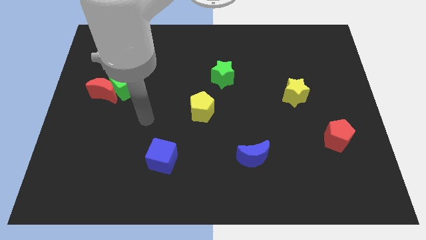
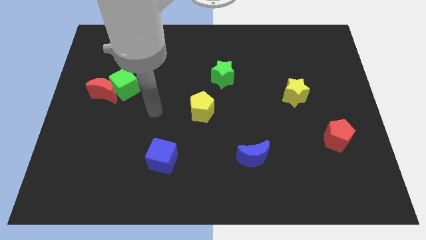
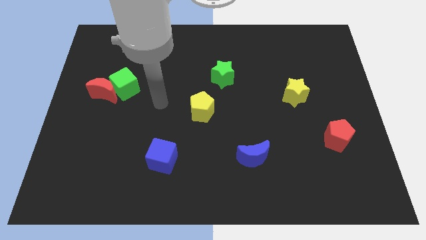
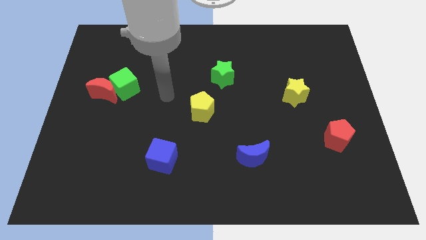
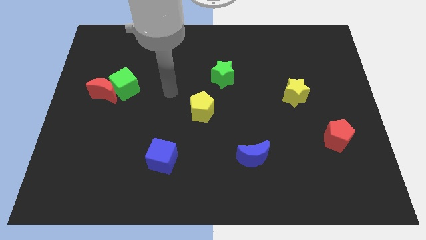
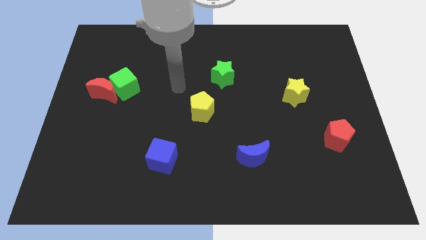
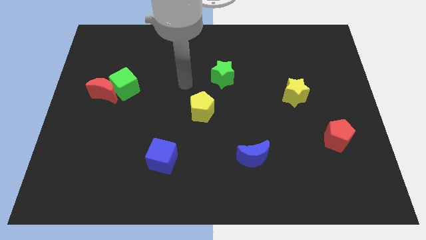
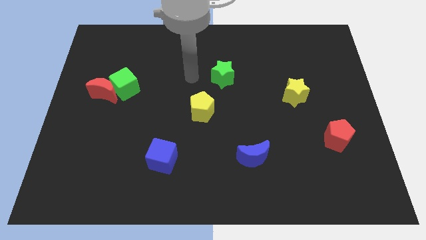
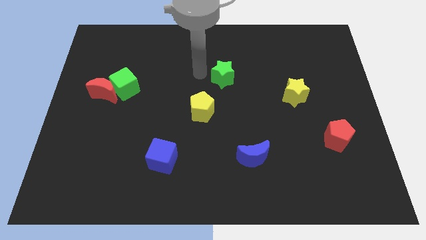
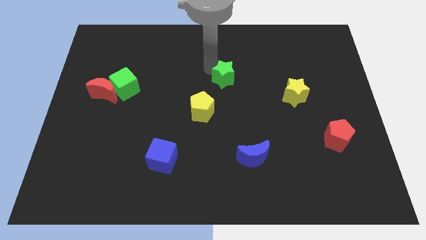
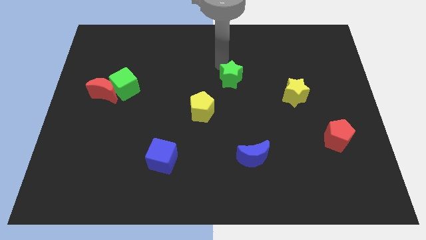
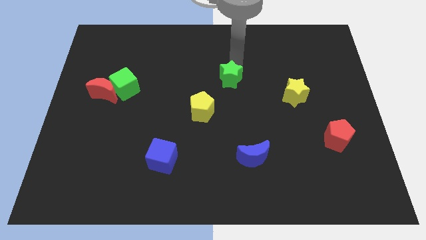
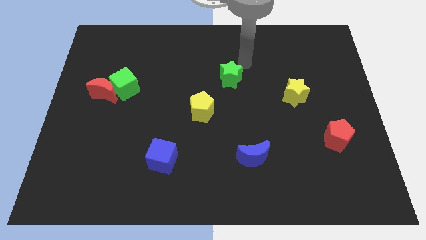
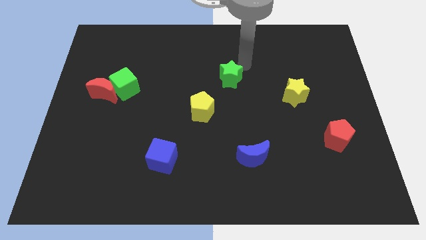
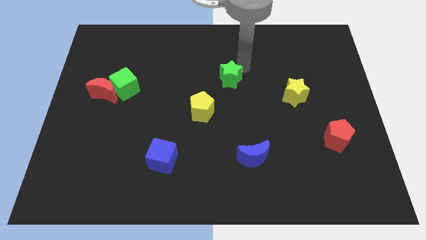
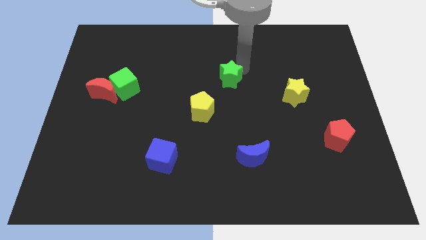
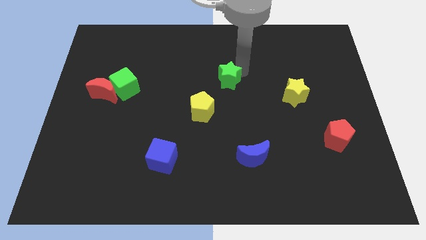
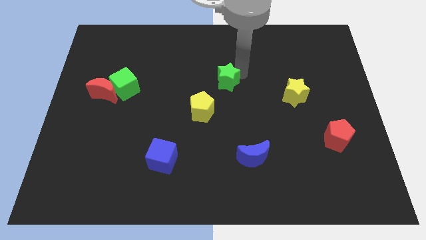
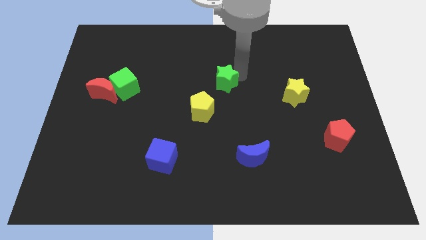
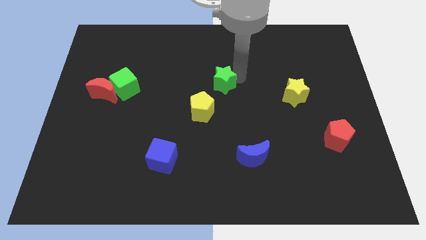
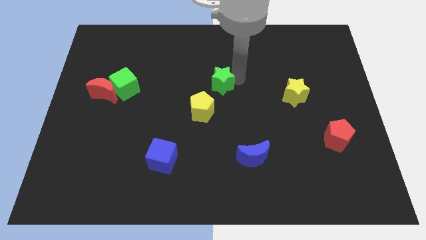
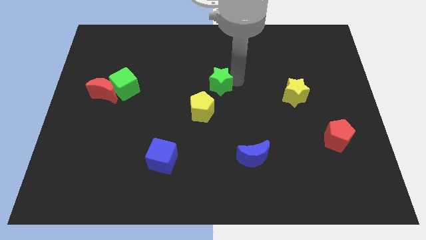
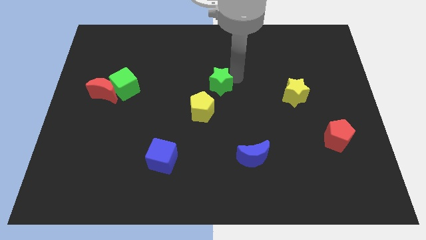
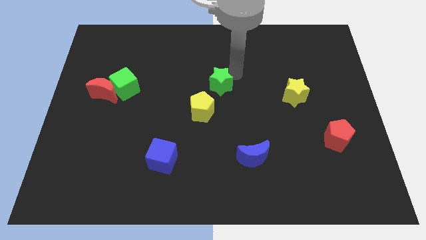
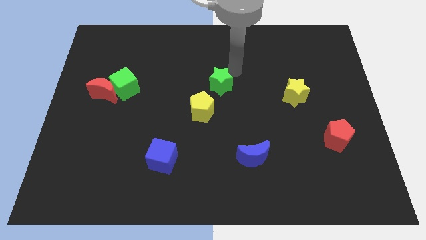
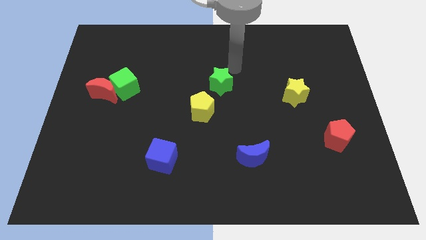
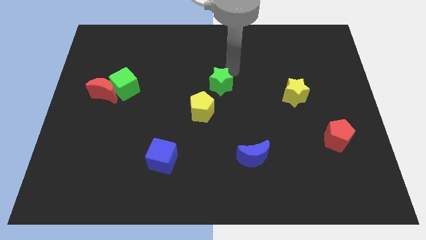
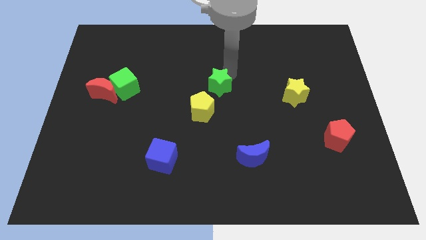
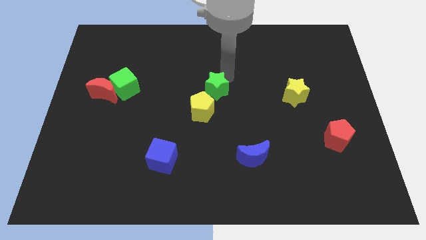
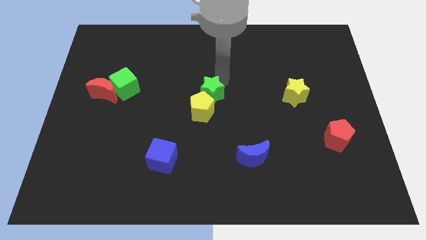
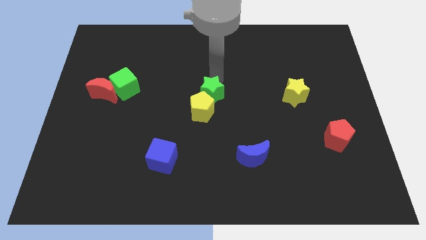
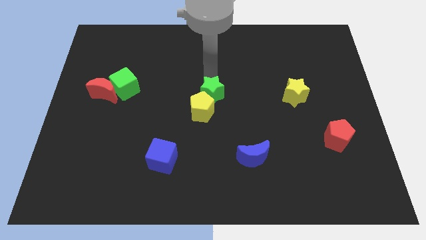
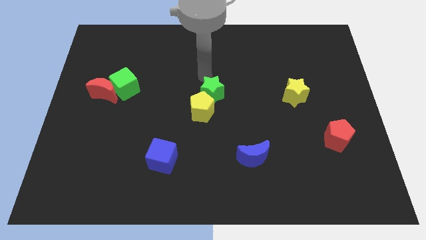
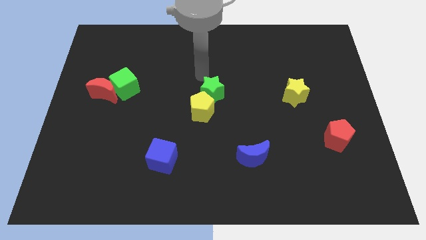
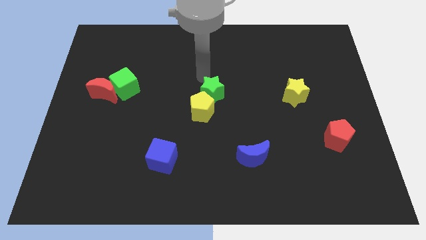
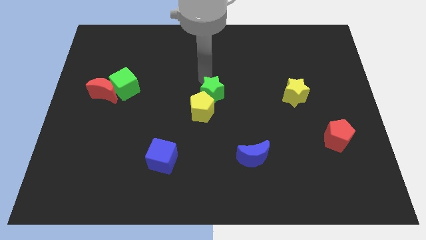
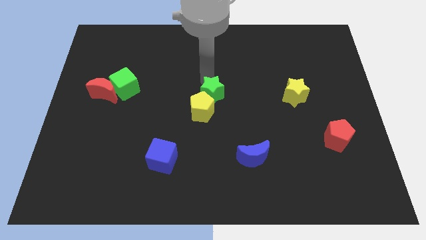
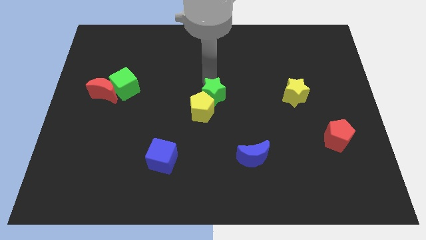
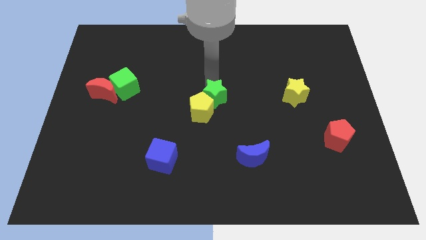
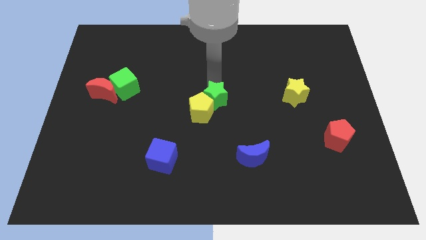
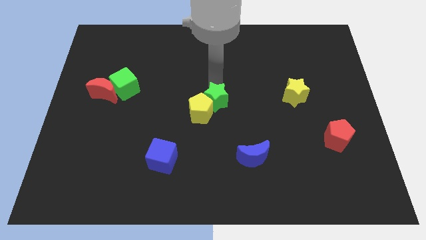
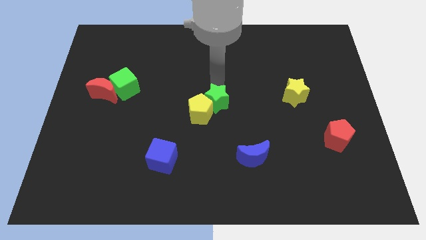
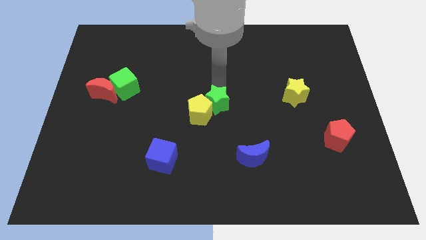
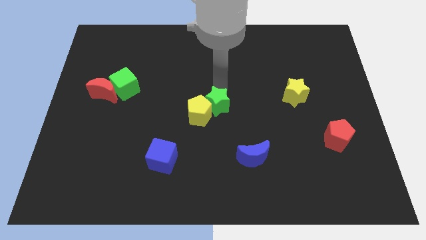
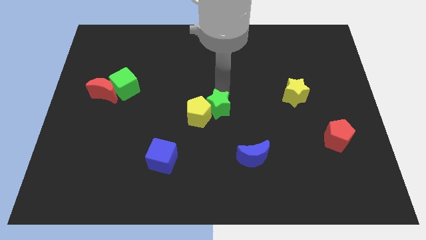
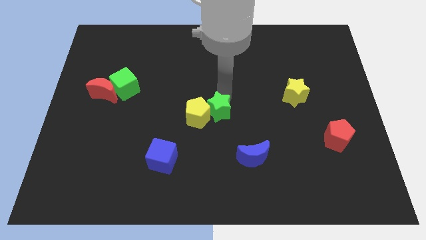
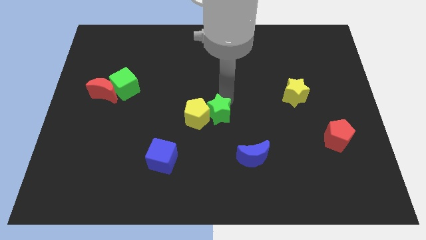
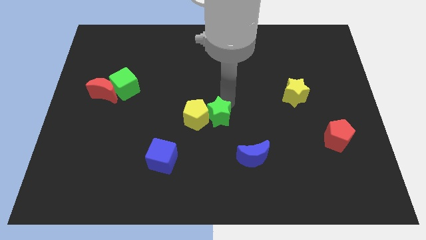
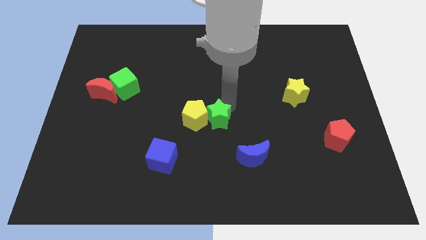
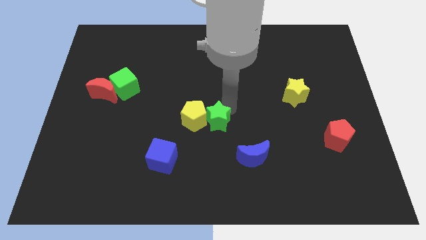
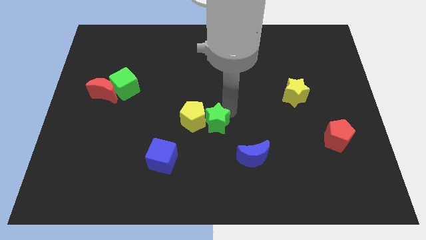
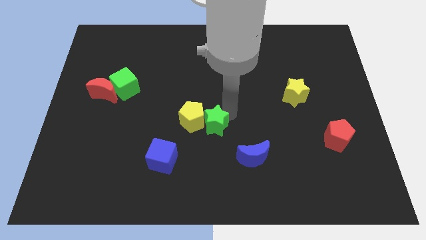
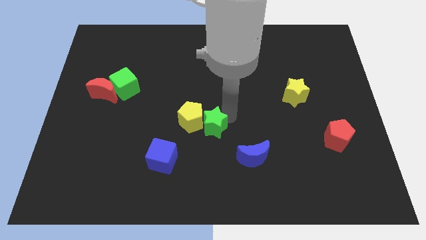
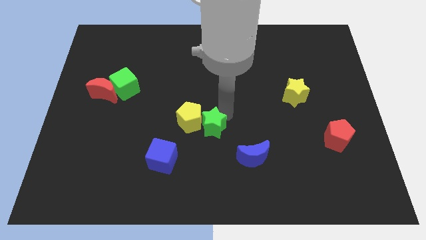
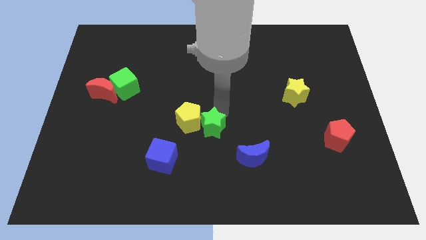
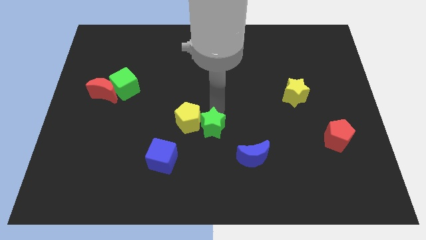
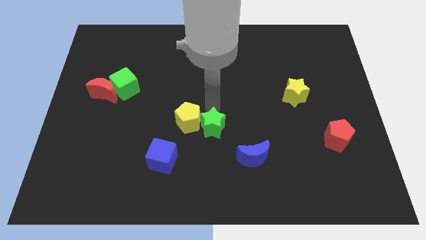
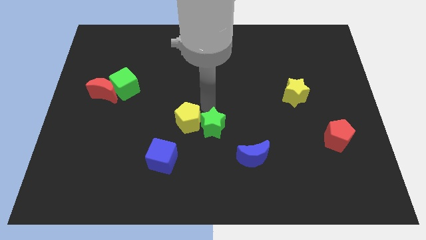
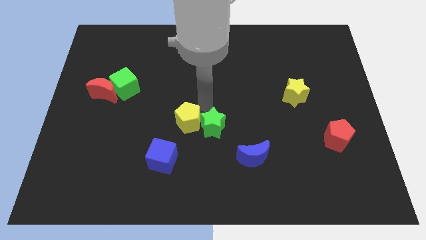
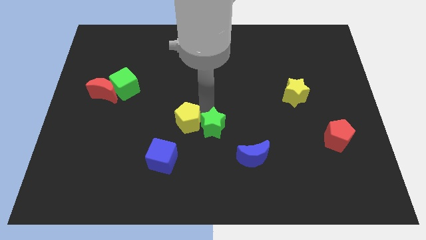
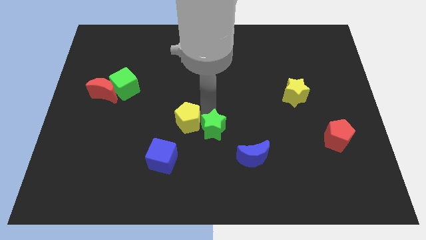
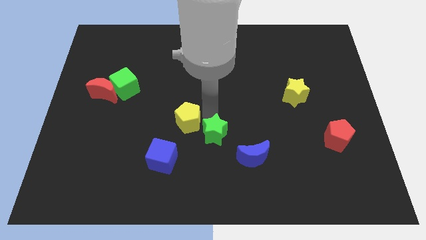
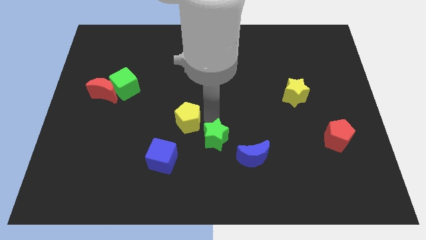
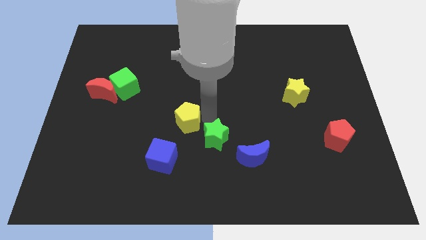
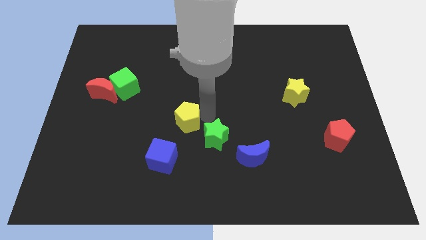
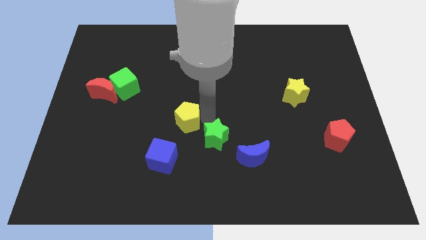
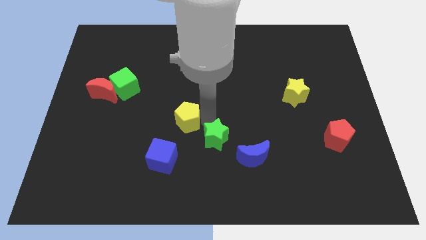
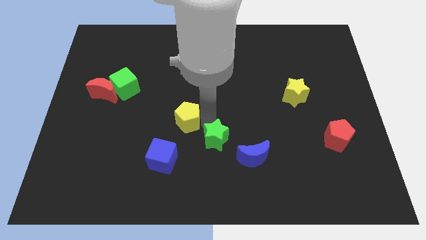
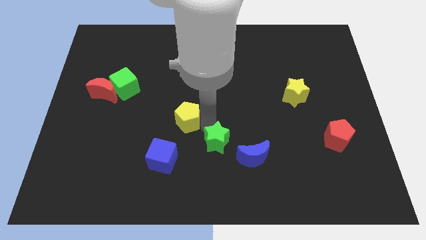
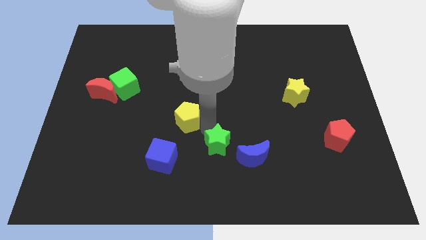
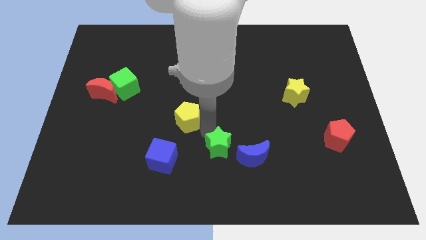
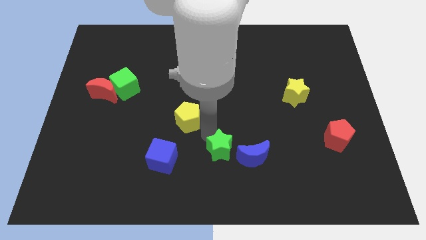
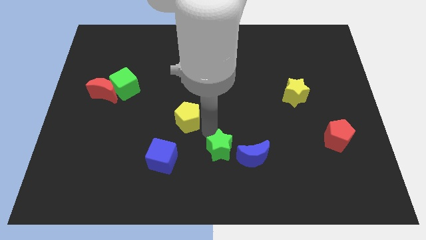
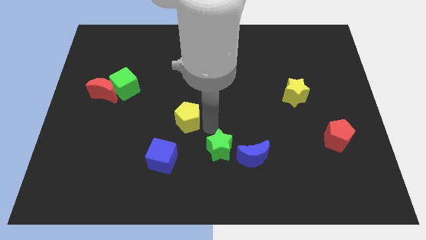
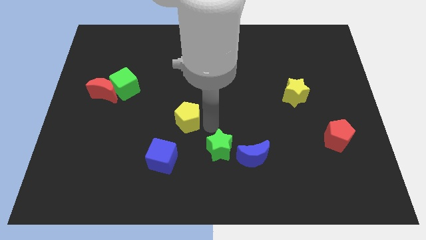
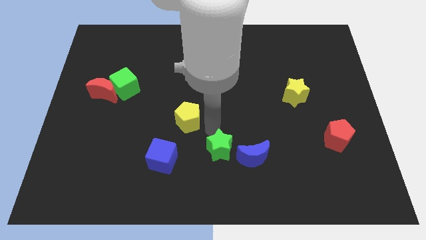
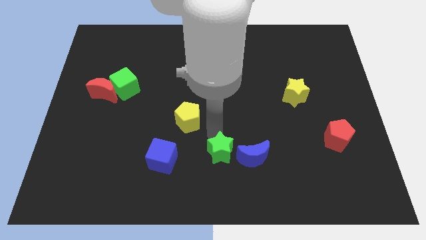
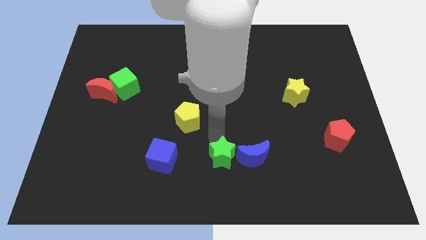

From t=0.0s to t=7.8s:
slide the green star to the bottom
